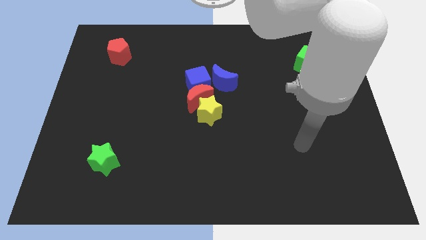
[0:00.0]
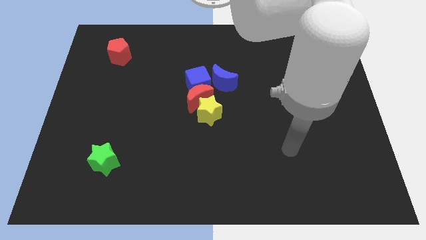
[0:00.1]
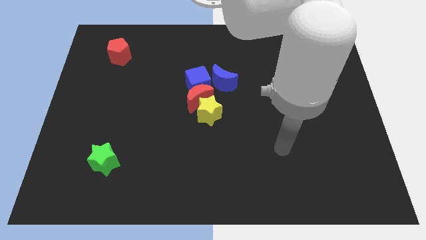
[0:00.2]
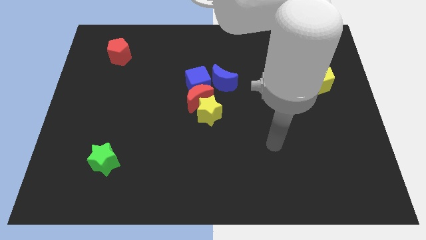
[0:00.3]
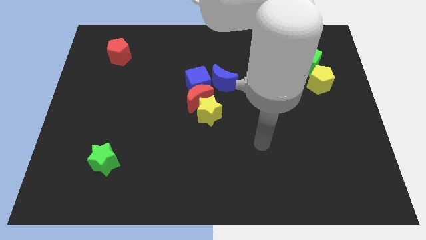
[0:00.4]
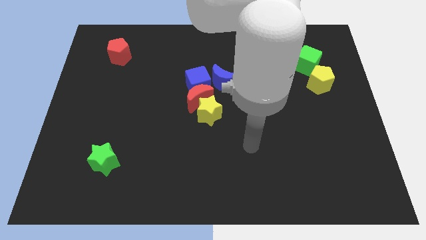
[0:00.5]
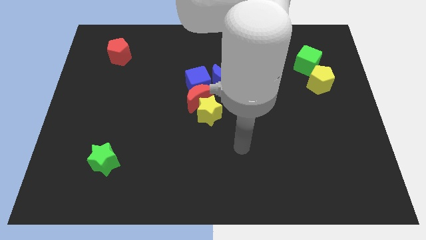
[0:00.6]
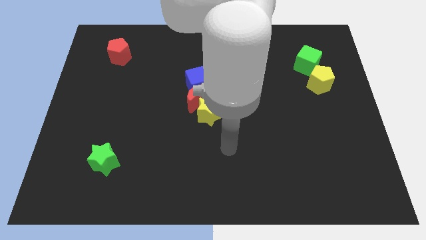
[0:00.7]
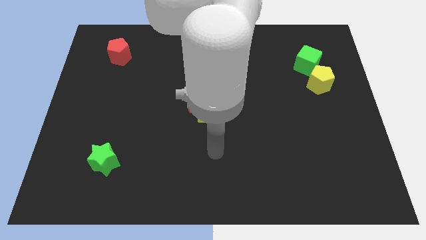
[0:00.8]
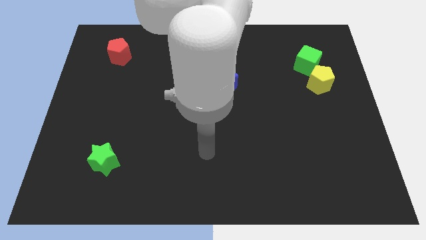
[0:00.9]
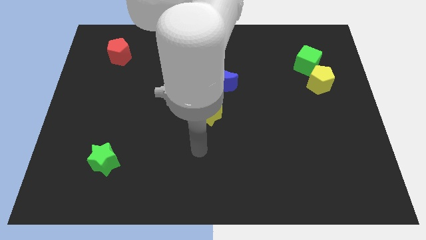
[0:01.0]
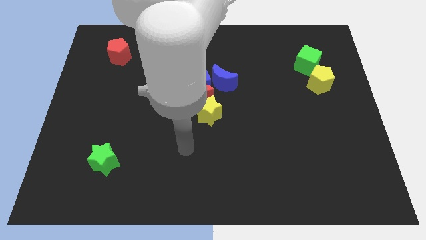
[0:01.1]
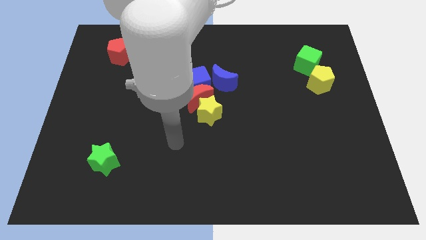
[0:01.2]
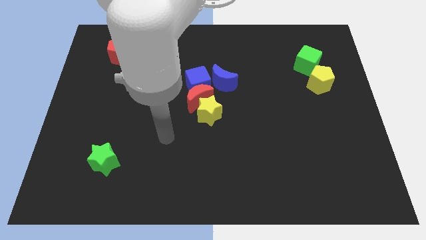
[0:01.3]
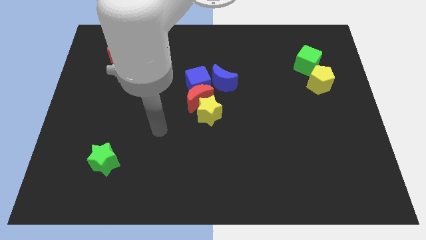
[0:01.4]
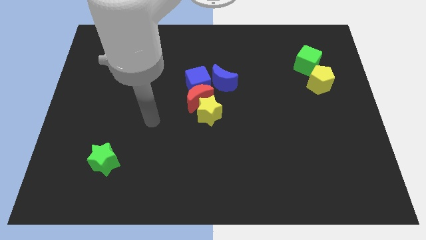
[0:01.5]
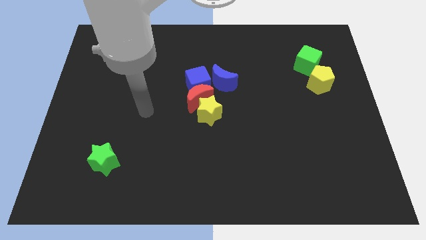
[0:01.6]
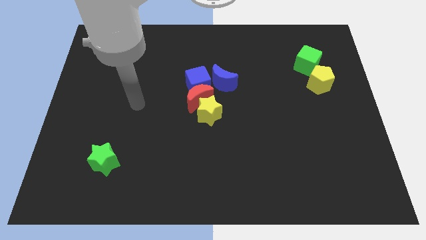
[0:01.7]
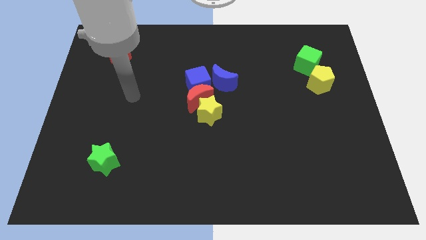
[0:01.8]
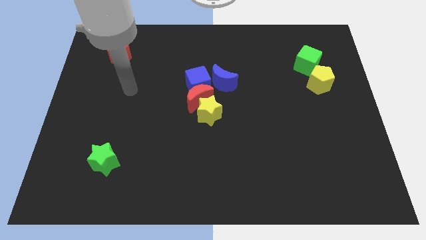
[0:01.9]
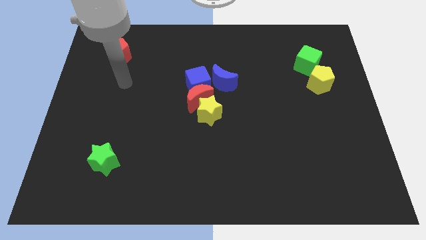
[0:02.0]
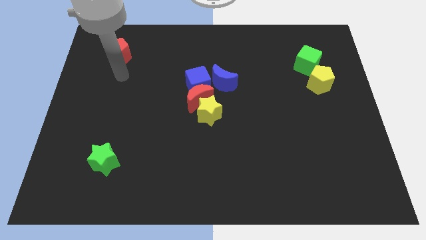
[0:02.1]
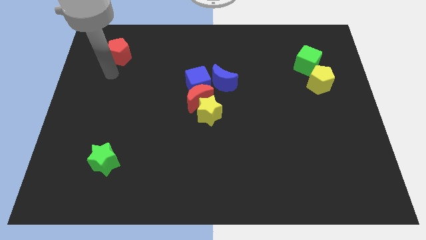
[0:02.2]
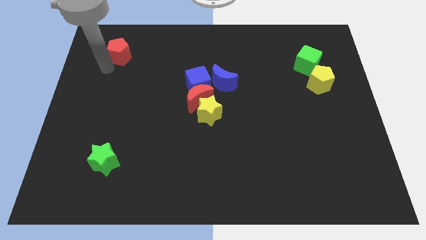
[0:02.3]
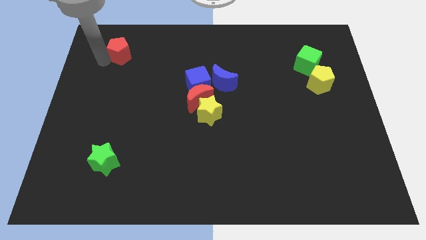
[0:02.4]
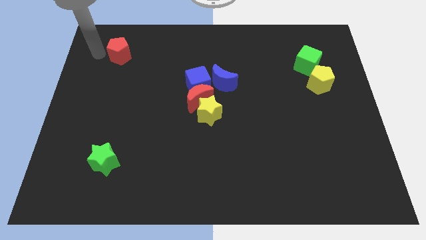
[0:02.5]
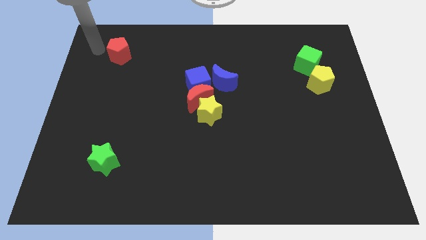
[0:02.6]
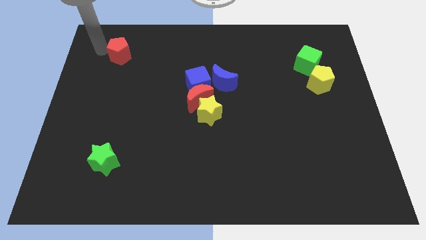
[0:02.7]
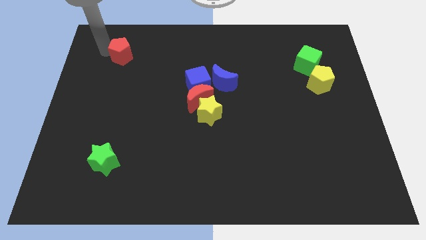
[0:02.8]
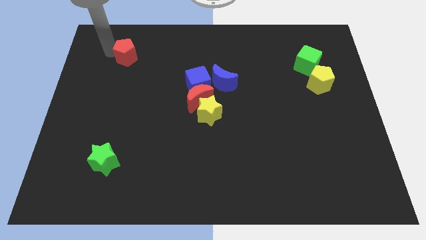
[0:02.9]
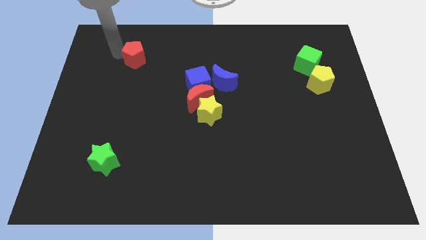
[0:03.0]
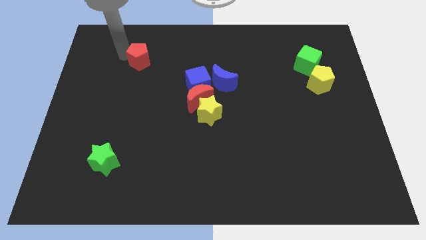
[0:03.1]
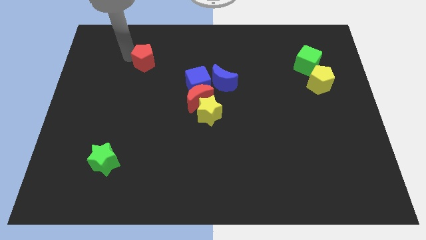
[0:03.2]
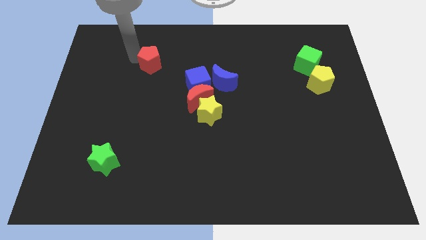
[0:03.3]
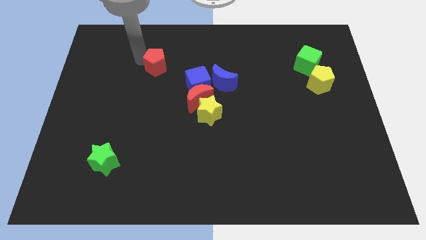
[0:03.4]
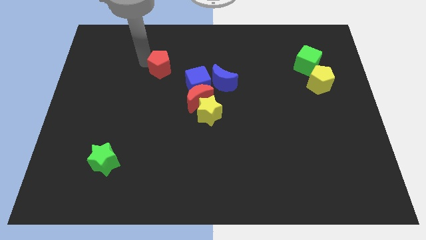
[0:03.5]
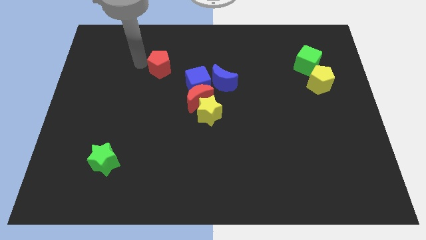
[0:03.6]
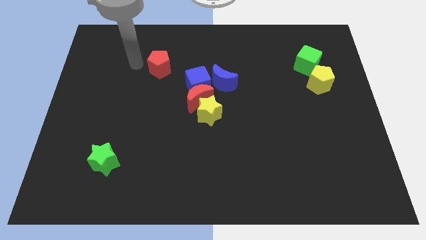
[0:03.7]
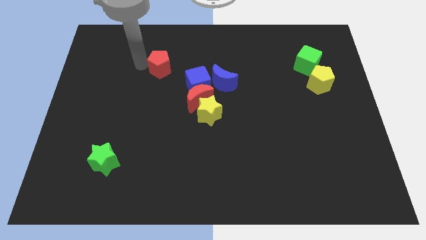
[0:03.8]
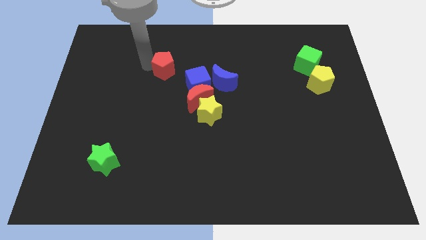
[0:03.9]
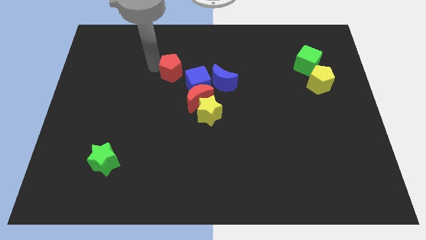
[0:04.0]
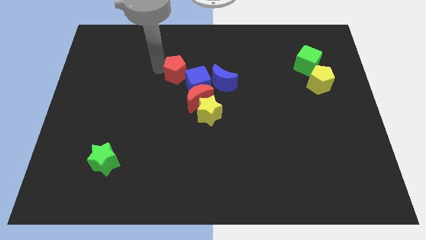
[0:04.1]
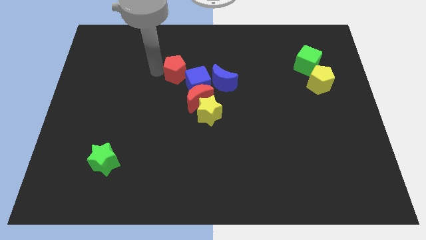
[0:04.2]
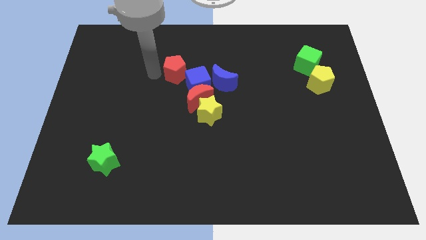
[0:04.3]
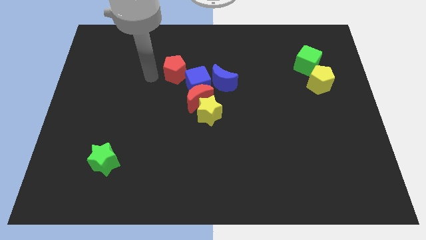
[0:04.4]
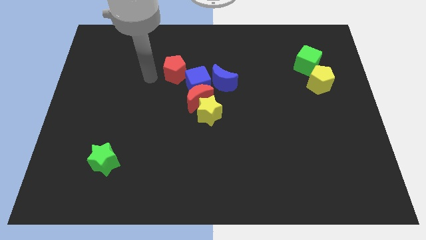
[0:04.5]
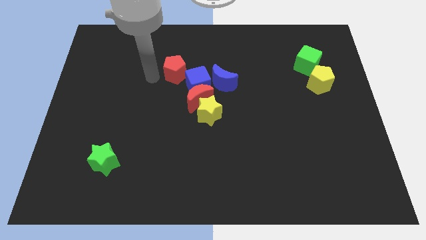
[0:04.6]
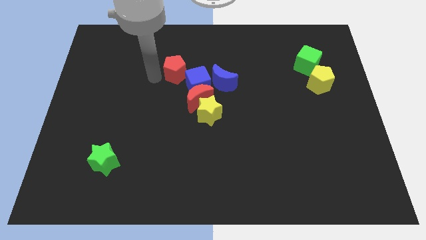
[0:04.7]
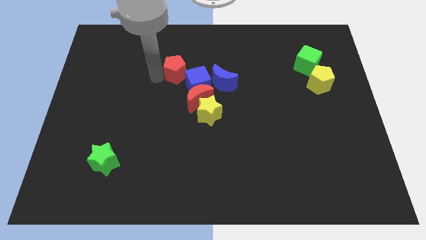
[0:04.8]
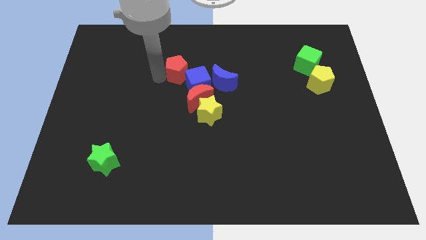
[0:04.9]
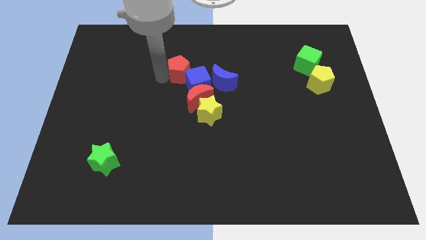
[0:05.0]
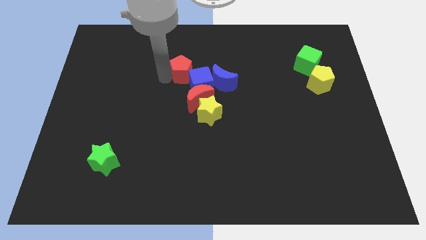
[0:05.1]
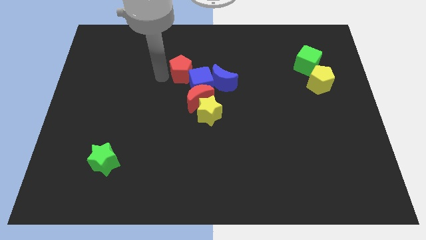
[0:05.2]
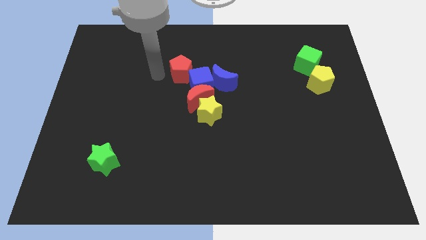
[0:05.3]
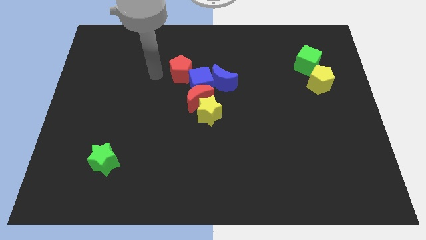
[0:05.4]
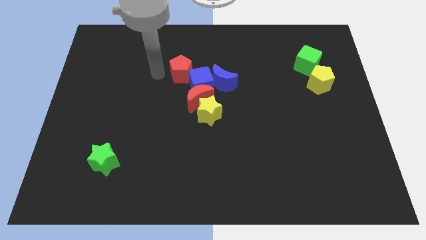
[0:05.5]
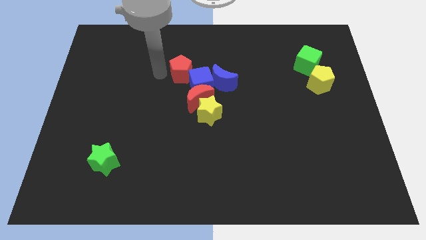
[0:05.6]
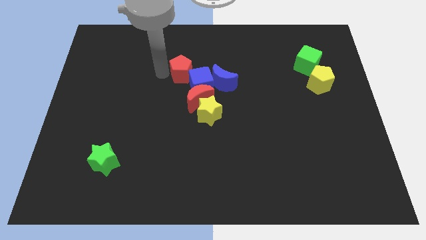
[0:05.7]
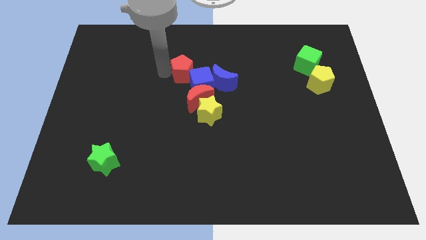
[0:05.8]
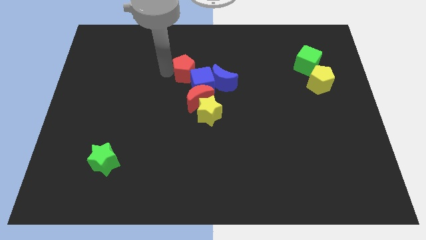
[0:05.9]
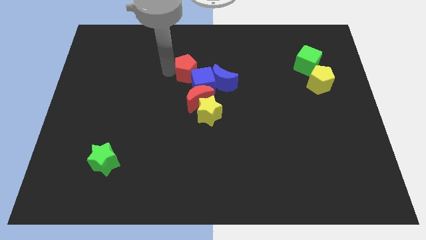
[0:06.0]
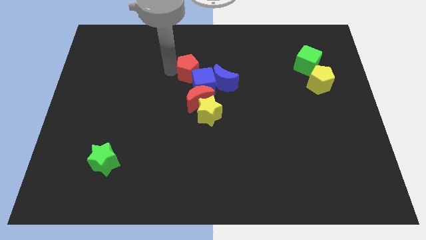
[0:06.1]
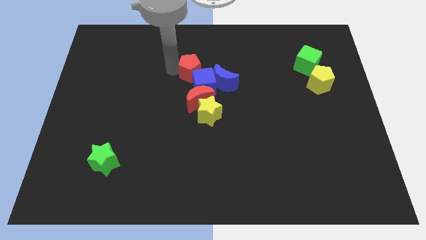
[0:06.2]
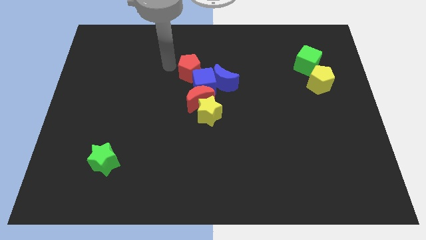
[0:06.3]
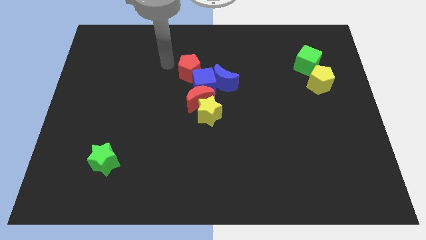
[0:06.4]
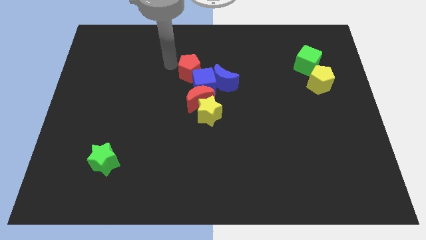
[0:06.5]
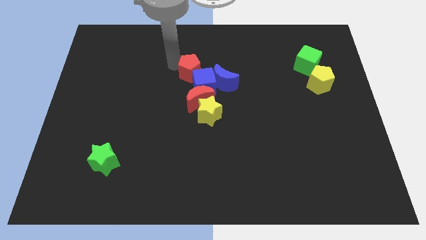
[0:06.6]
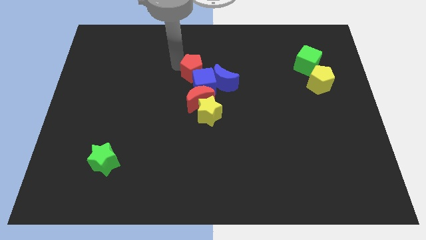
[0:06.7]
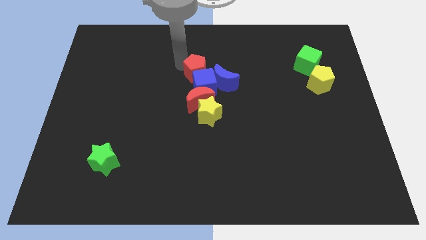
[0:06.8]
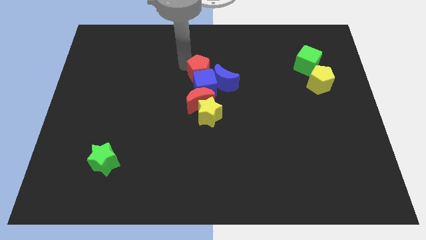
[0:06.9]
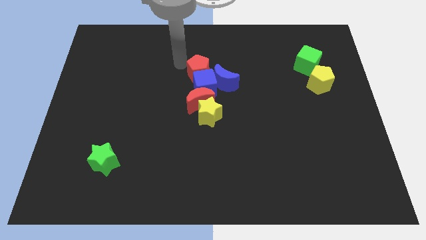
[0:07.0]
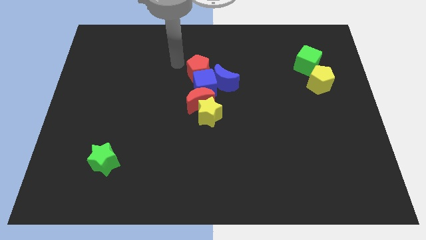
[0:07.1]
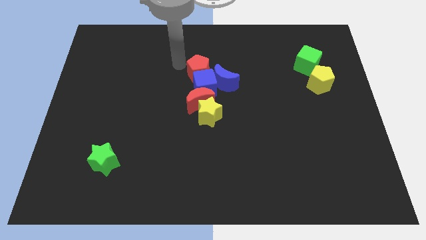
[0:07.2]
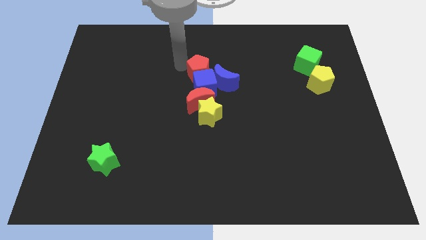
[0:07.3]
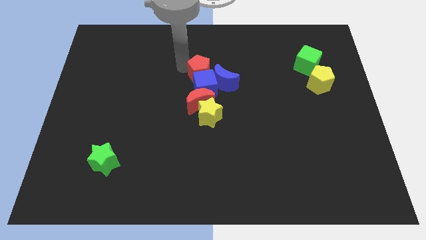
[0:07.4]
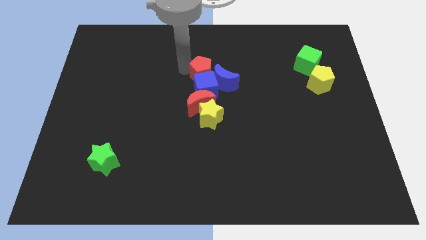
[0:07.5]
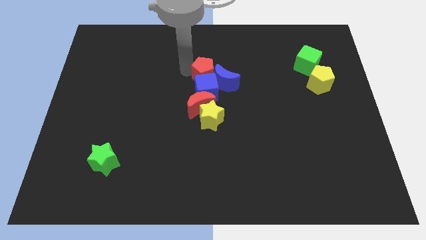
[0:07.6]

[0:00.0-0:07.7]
put the red pentagon next to the blue moon
